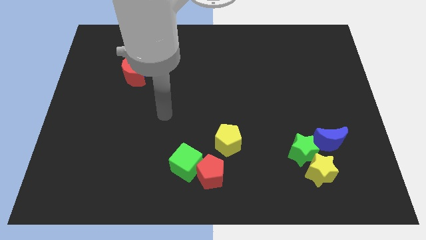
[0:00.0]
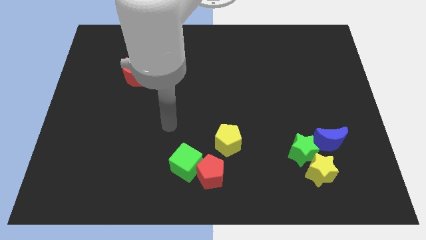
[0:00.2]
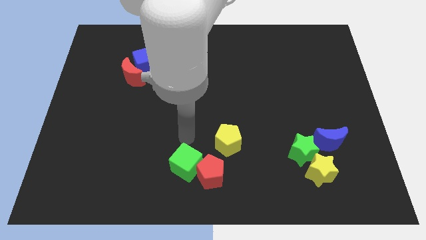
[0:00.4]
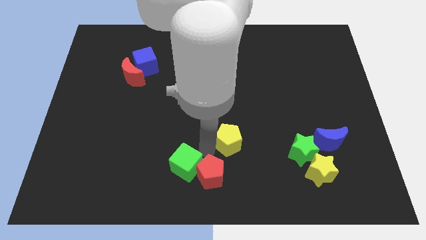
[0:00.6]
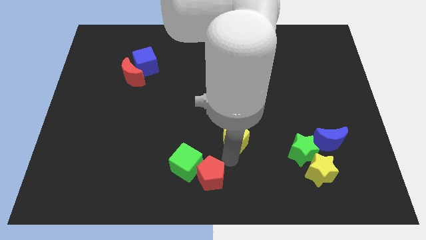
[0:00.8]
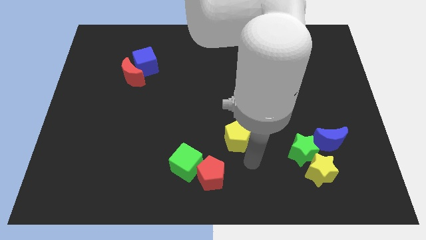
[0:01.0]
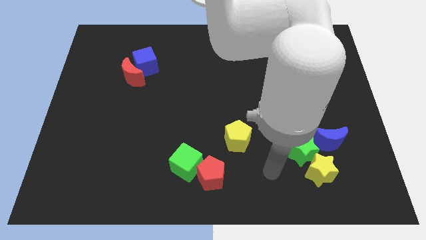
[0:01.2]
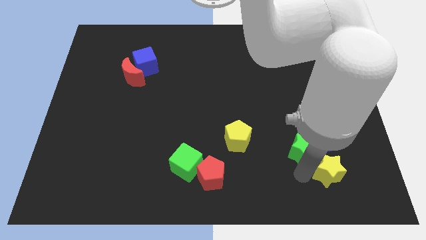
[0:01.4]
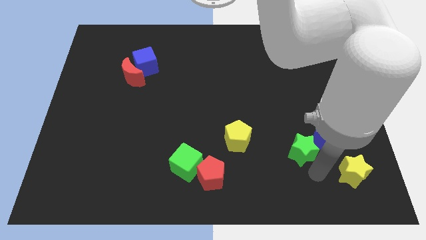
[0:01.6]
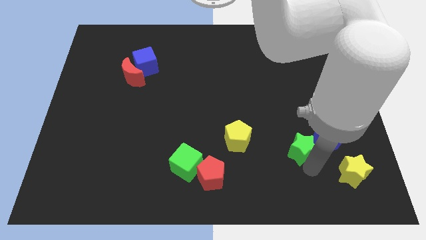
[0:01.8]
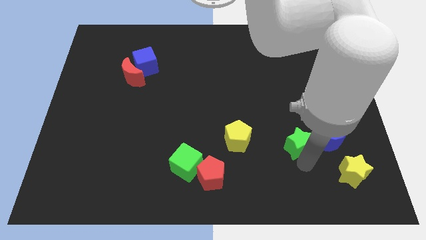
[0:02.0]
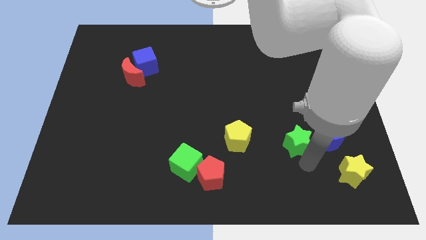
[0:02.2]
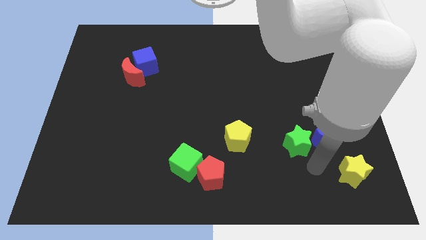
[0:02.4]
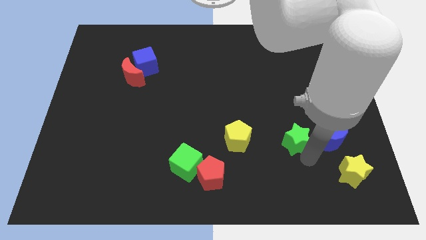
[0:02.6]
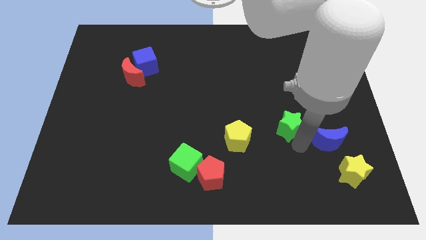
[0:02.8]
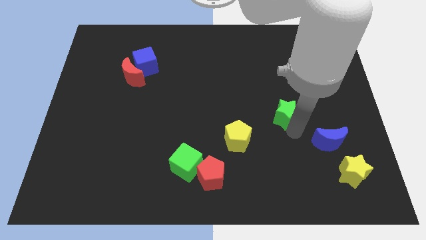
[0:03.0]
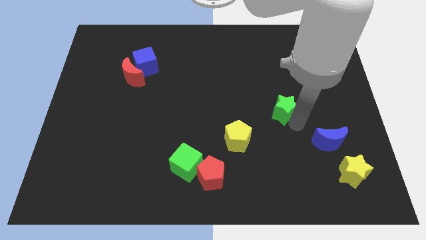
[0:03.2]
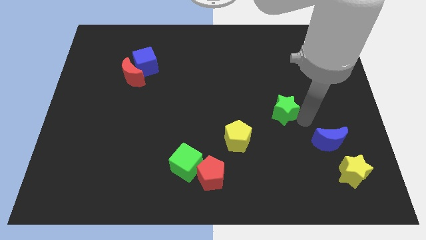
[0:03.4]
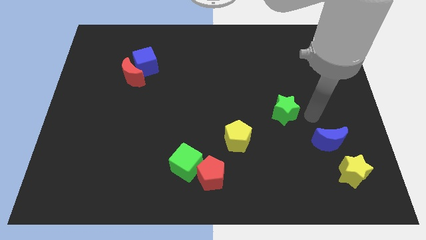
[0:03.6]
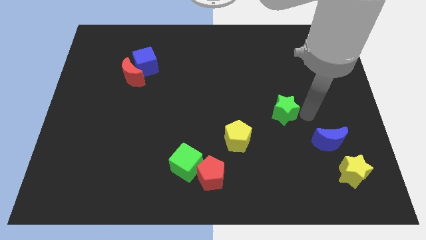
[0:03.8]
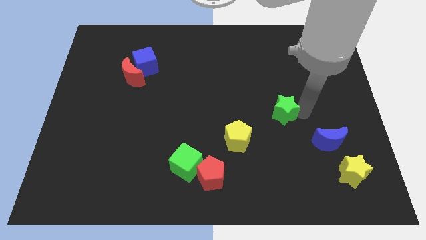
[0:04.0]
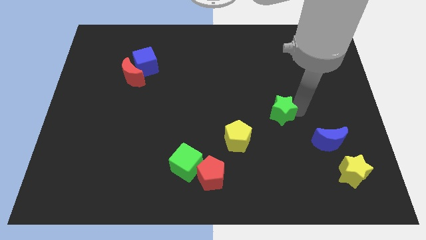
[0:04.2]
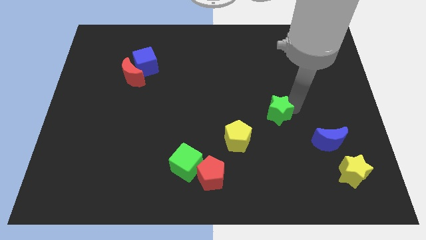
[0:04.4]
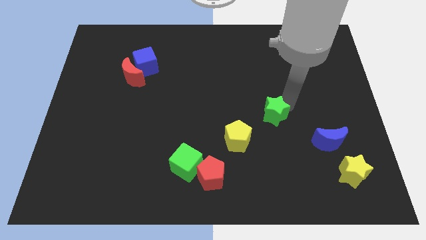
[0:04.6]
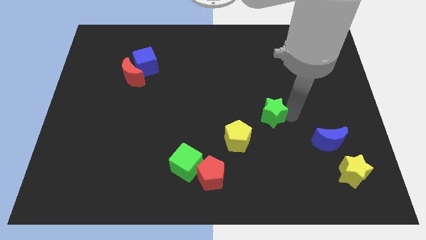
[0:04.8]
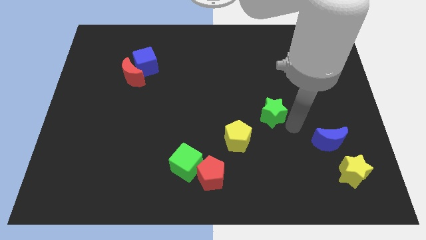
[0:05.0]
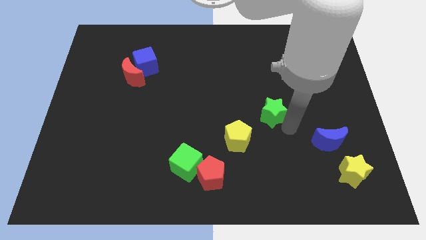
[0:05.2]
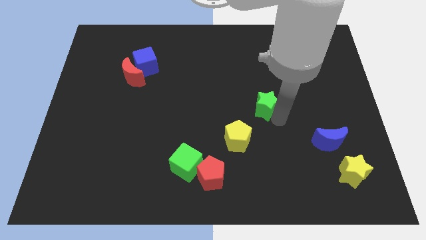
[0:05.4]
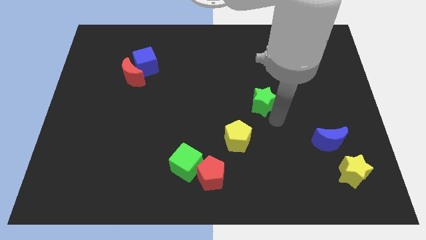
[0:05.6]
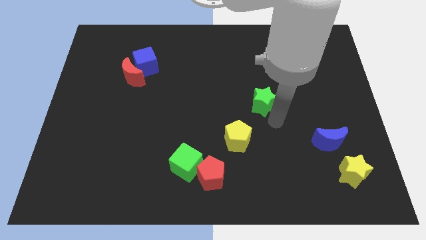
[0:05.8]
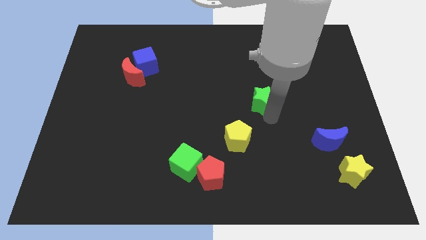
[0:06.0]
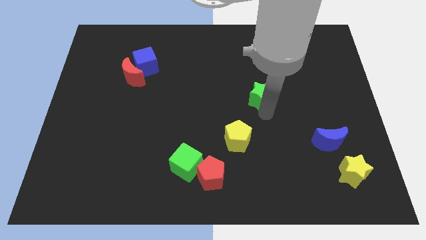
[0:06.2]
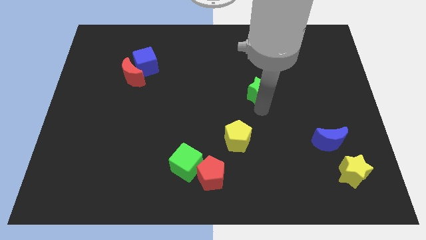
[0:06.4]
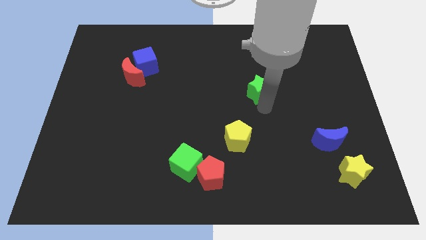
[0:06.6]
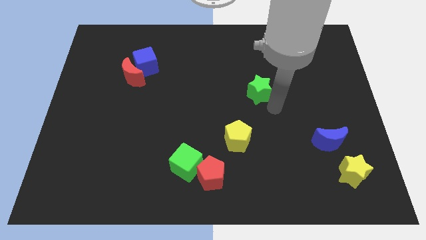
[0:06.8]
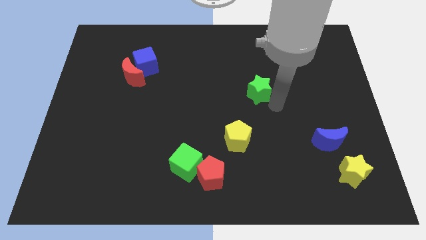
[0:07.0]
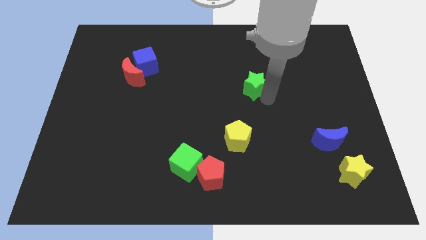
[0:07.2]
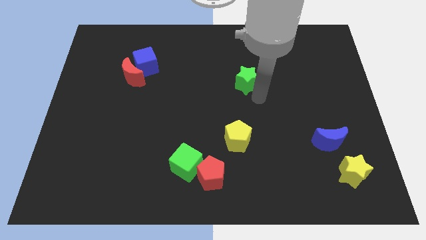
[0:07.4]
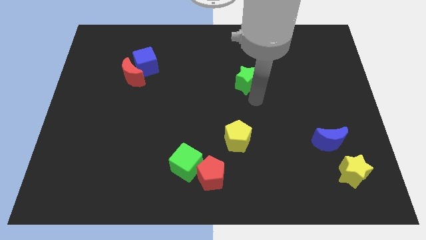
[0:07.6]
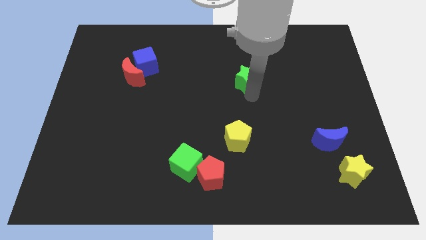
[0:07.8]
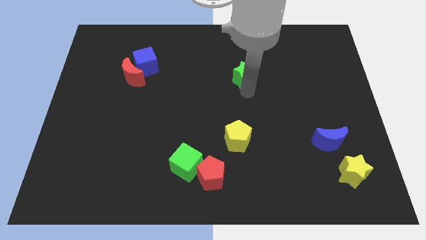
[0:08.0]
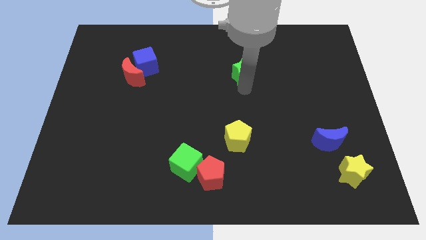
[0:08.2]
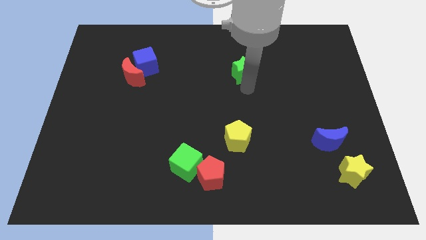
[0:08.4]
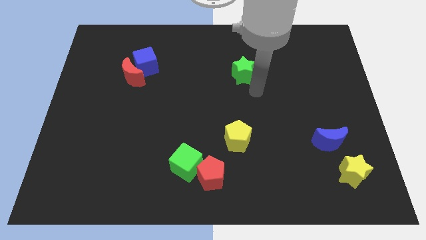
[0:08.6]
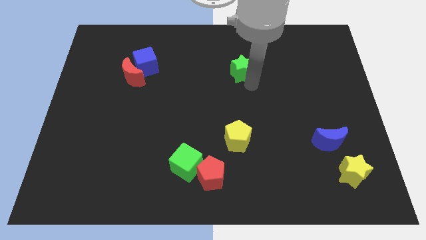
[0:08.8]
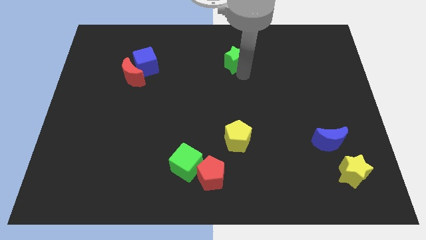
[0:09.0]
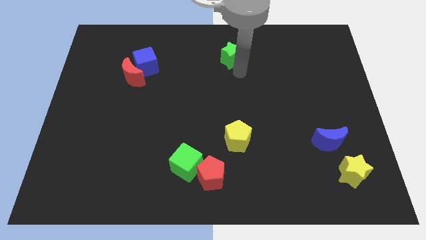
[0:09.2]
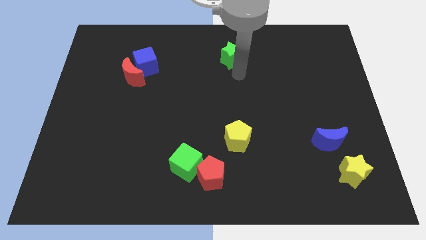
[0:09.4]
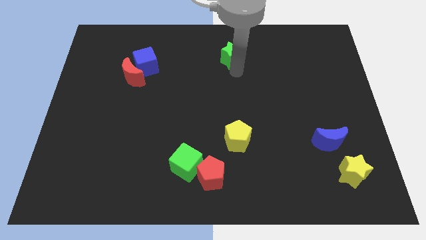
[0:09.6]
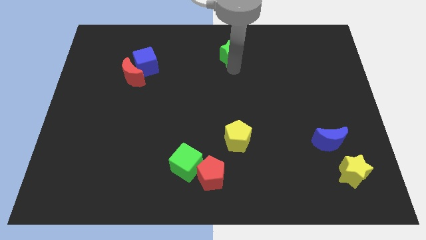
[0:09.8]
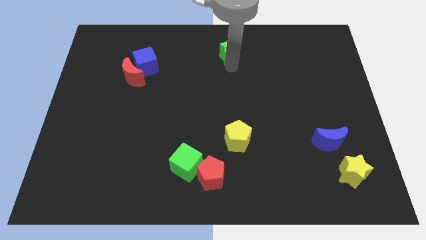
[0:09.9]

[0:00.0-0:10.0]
push the green star to the top

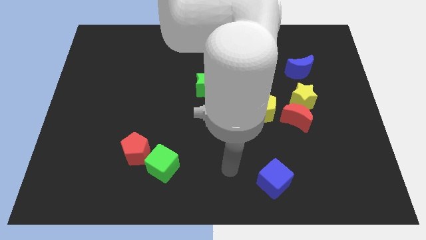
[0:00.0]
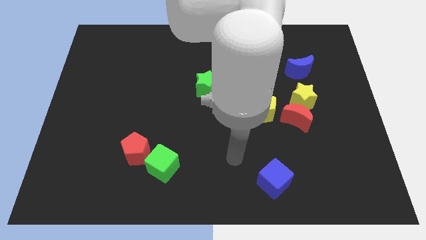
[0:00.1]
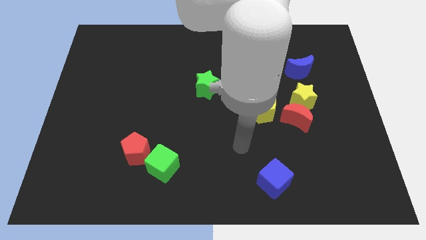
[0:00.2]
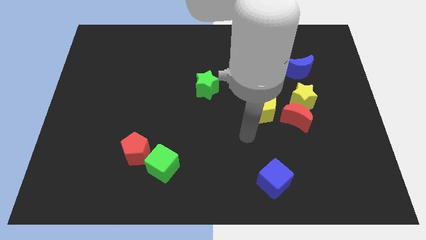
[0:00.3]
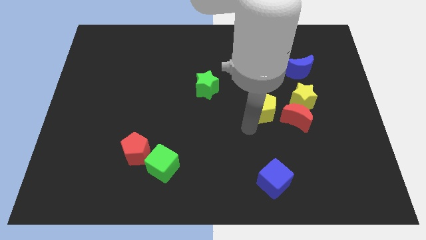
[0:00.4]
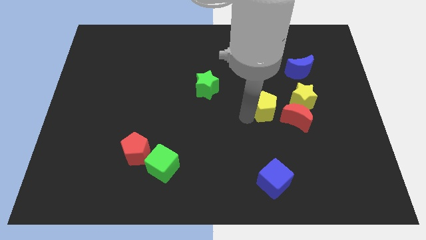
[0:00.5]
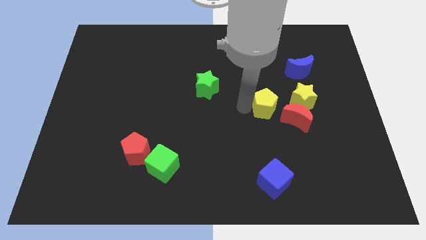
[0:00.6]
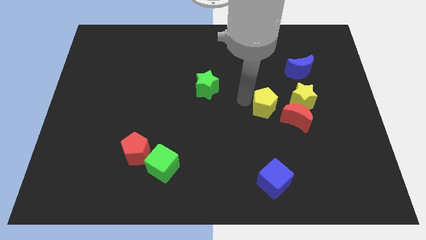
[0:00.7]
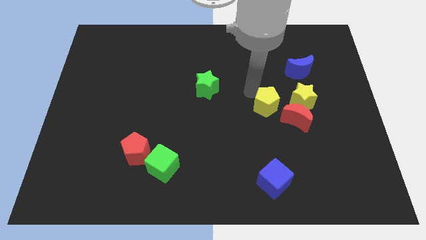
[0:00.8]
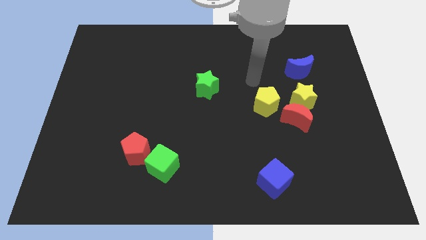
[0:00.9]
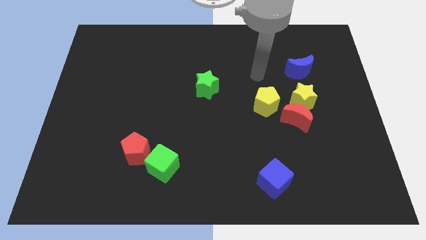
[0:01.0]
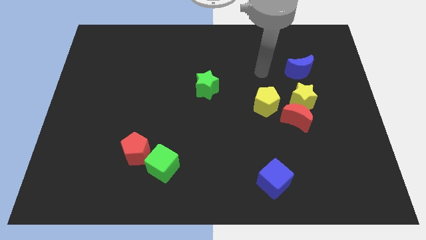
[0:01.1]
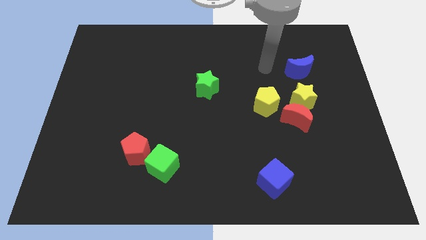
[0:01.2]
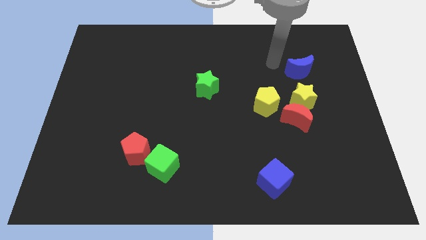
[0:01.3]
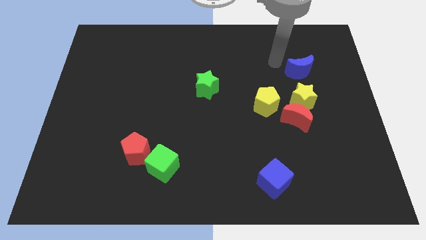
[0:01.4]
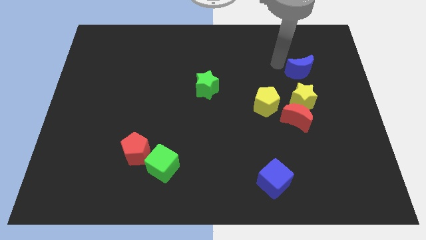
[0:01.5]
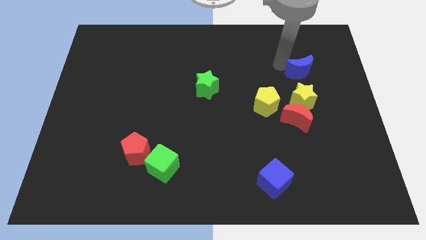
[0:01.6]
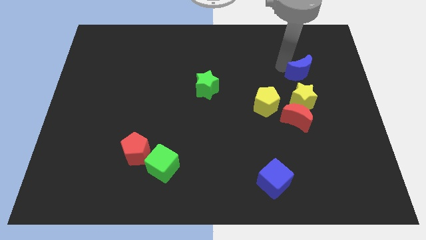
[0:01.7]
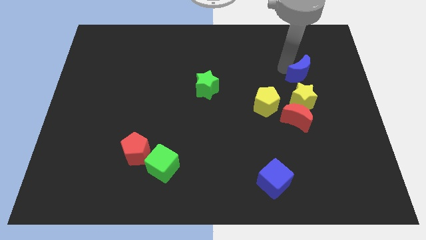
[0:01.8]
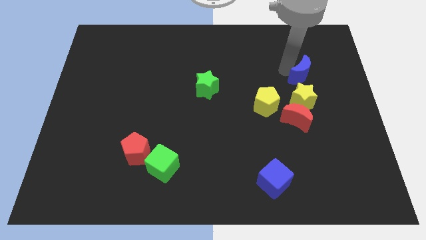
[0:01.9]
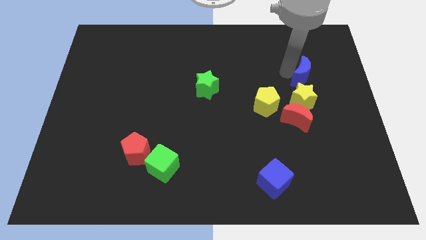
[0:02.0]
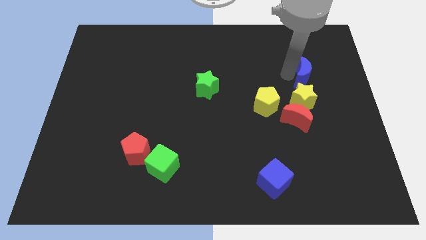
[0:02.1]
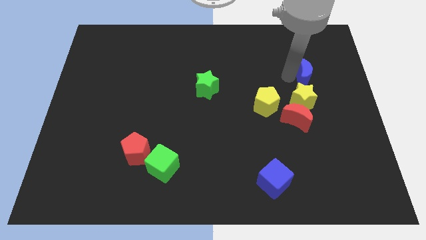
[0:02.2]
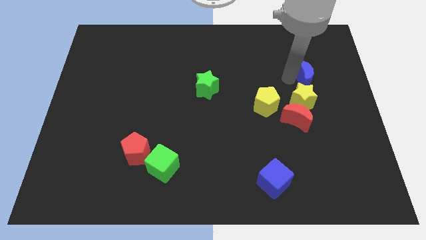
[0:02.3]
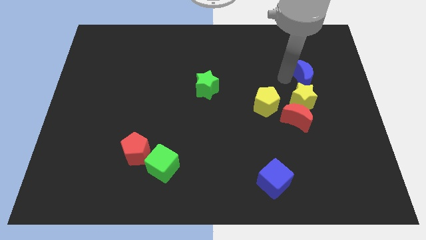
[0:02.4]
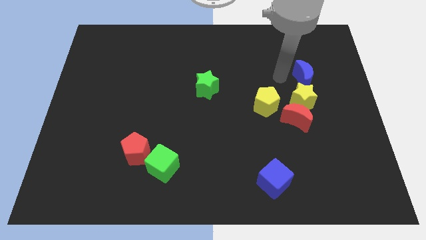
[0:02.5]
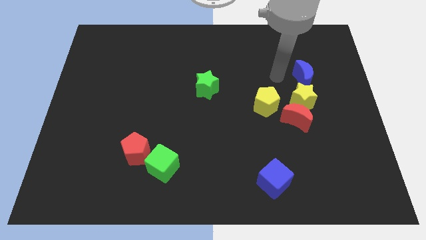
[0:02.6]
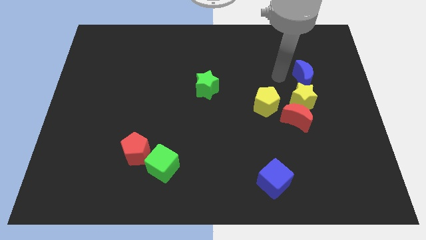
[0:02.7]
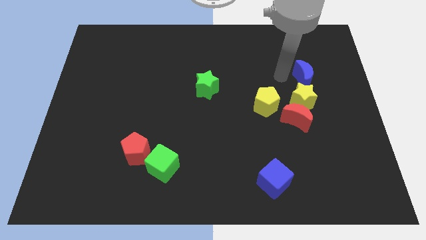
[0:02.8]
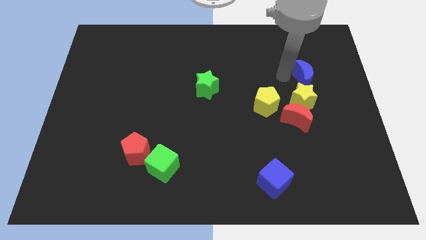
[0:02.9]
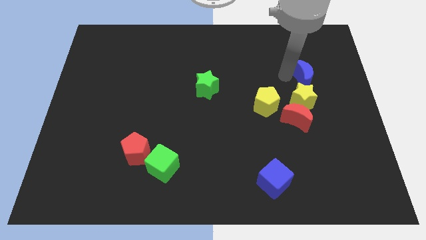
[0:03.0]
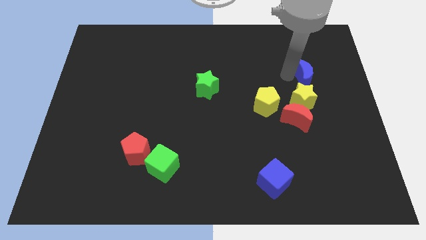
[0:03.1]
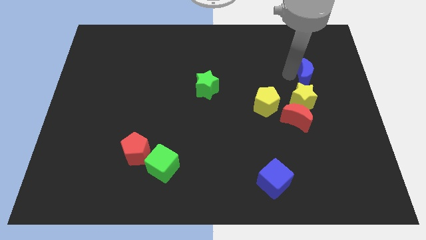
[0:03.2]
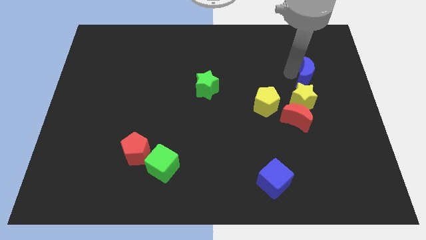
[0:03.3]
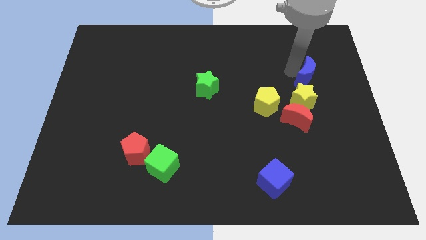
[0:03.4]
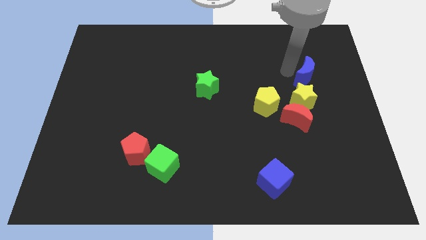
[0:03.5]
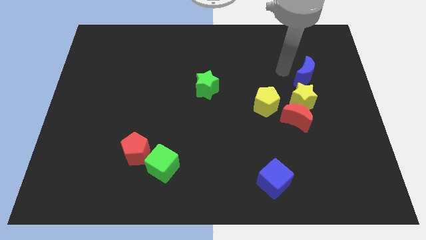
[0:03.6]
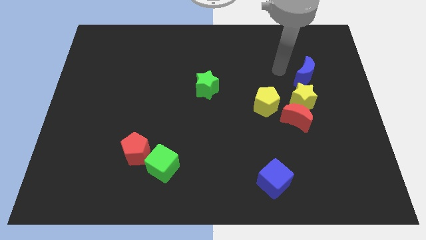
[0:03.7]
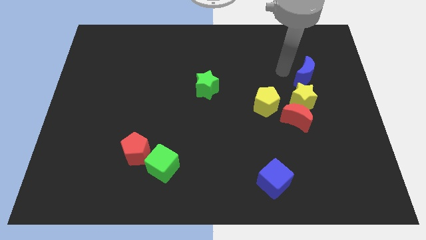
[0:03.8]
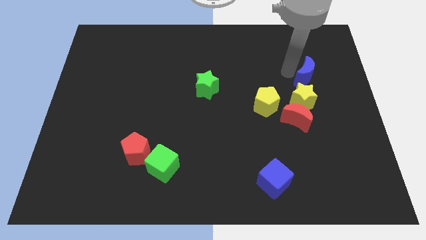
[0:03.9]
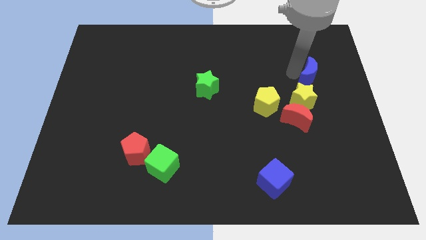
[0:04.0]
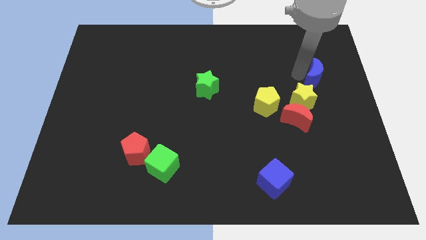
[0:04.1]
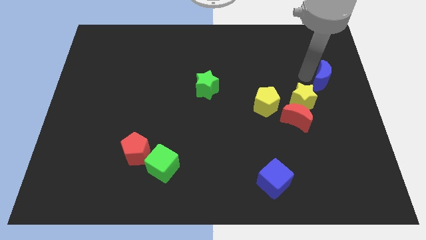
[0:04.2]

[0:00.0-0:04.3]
put the blue moon to the right side
